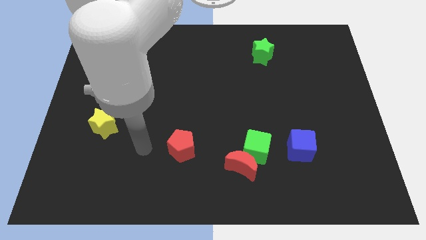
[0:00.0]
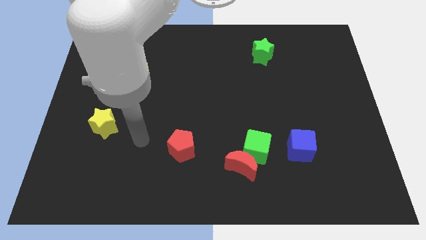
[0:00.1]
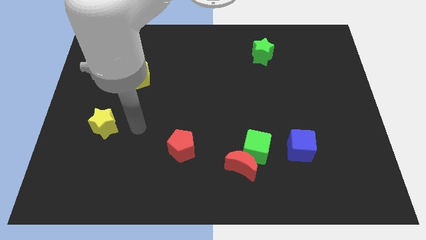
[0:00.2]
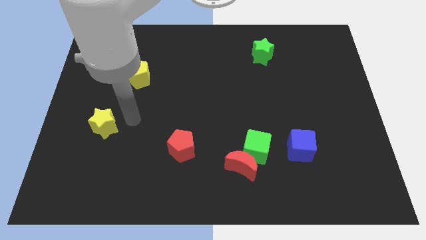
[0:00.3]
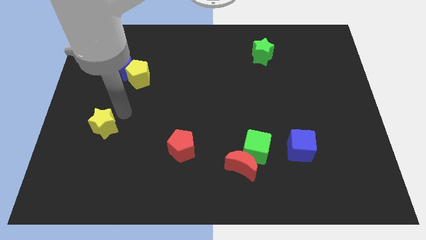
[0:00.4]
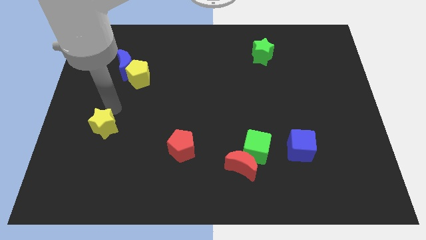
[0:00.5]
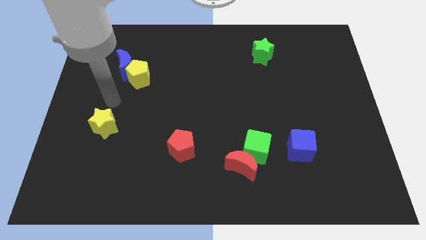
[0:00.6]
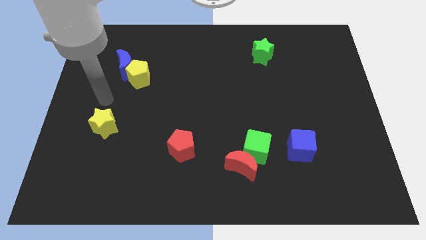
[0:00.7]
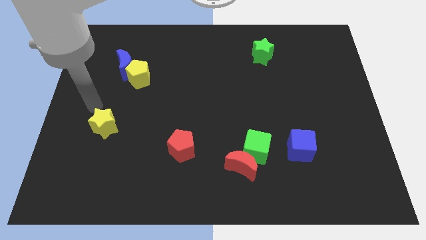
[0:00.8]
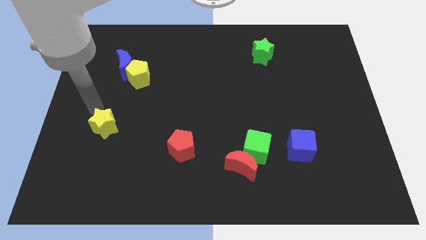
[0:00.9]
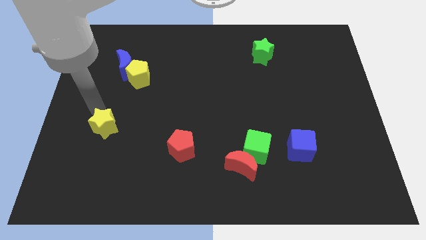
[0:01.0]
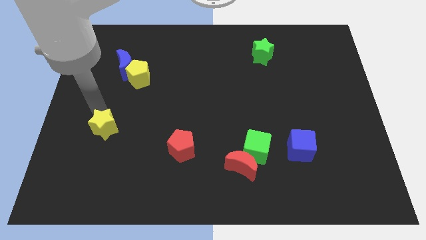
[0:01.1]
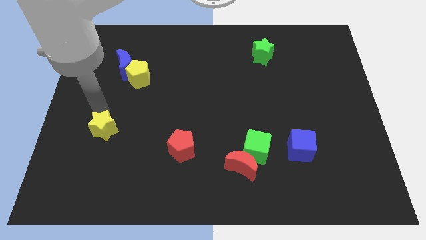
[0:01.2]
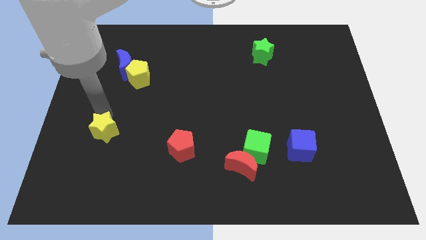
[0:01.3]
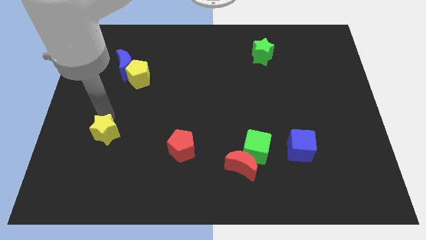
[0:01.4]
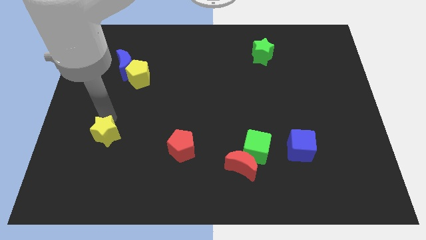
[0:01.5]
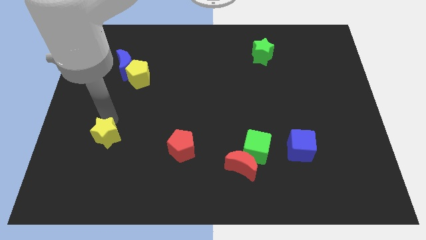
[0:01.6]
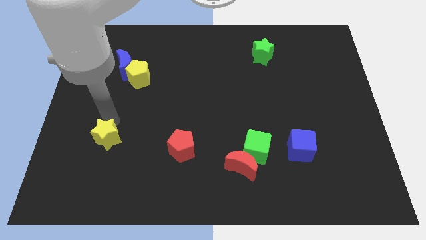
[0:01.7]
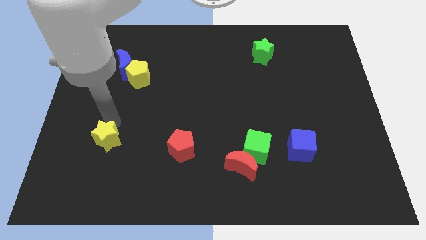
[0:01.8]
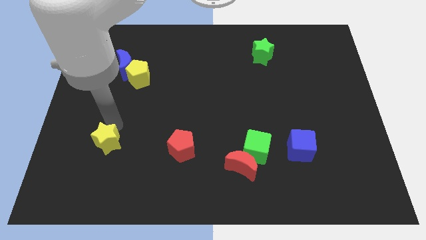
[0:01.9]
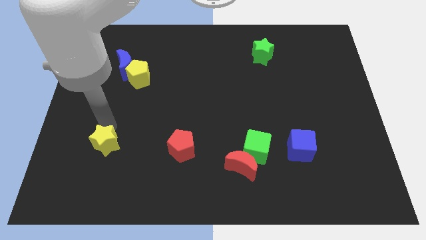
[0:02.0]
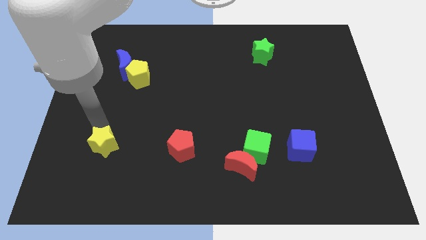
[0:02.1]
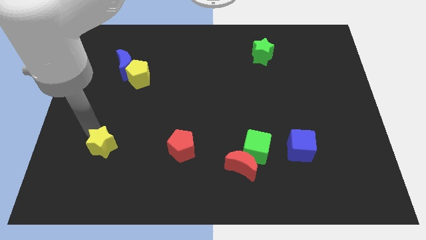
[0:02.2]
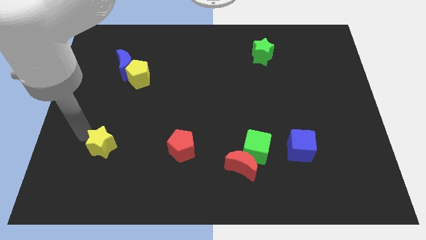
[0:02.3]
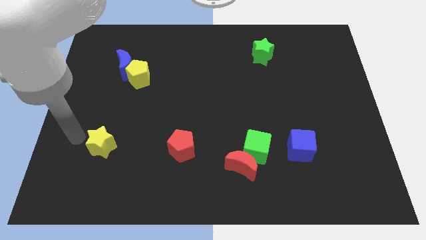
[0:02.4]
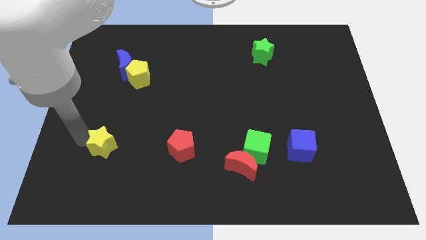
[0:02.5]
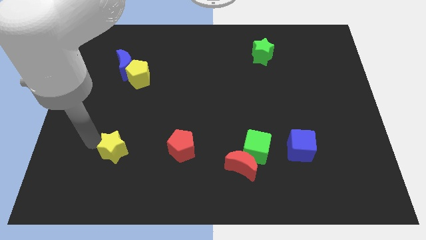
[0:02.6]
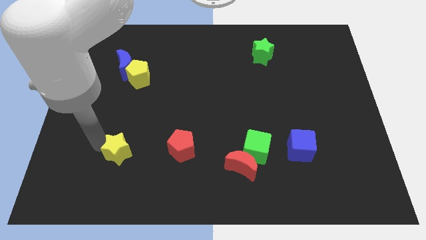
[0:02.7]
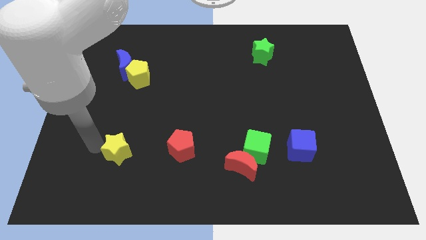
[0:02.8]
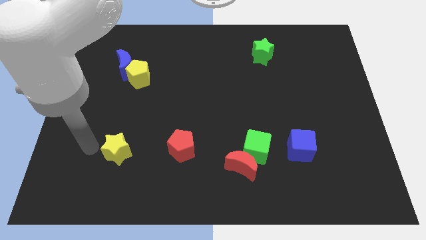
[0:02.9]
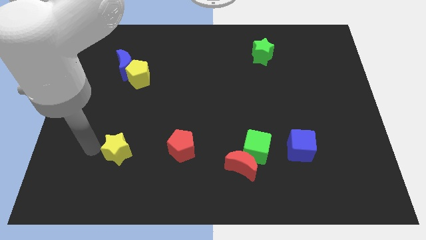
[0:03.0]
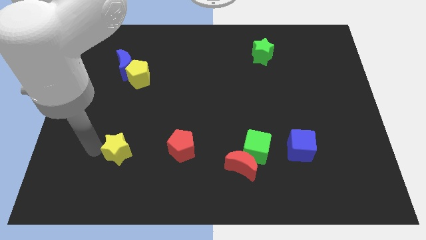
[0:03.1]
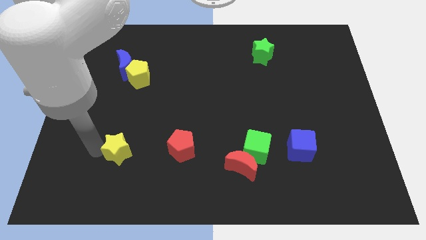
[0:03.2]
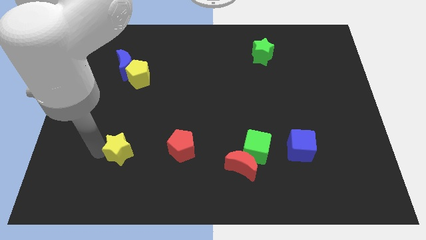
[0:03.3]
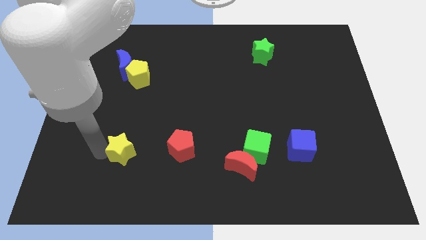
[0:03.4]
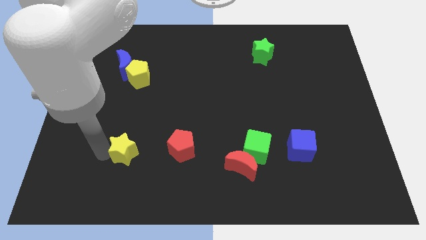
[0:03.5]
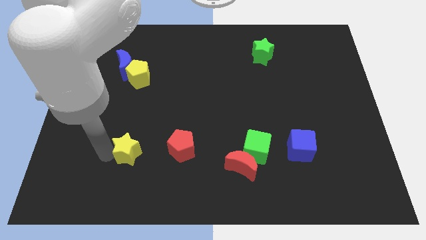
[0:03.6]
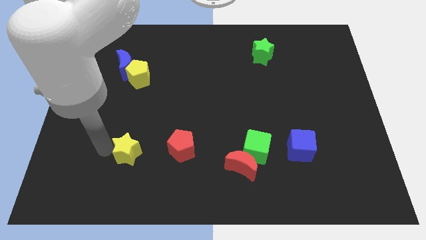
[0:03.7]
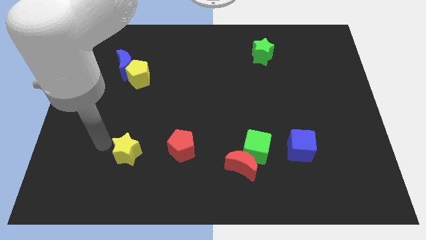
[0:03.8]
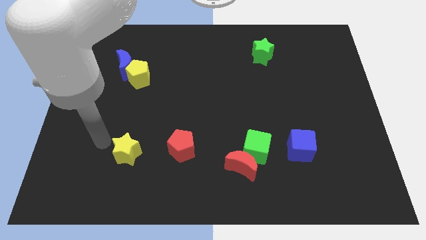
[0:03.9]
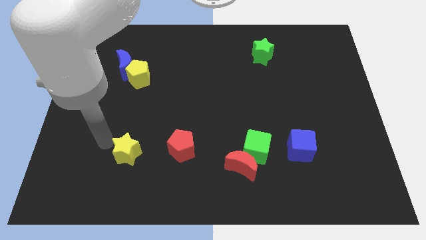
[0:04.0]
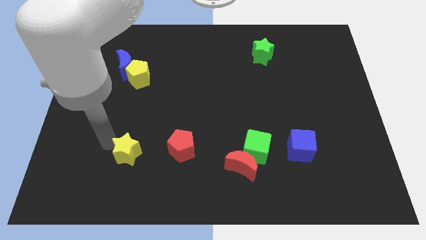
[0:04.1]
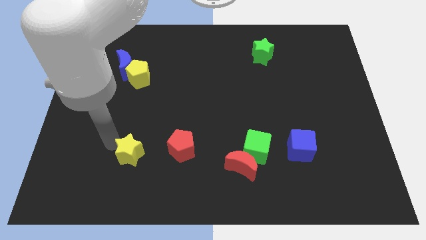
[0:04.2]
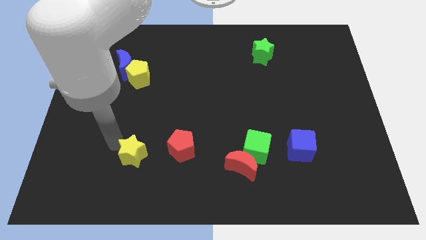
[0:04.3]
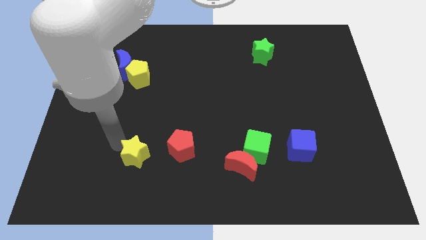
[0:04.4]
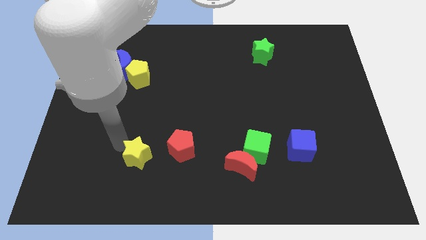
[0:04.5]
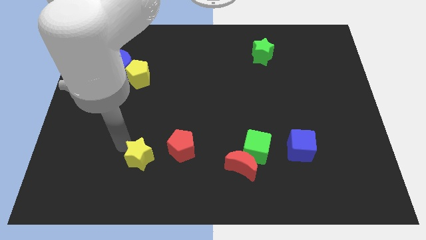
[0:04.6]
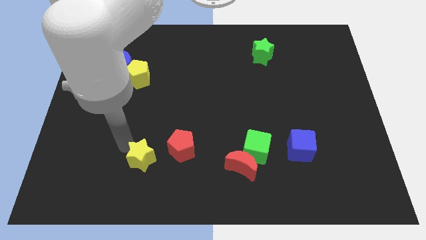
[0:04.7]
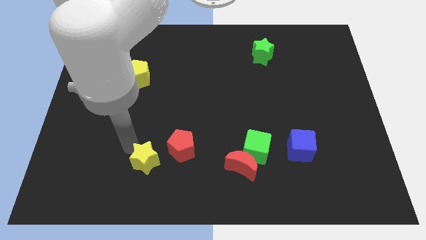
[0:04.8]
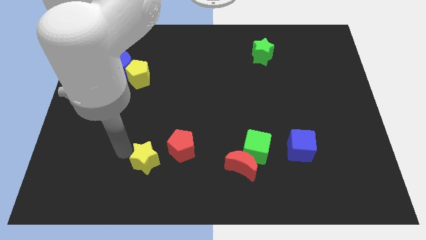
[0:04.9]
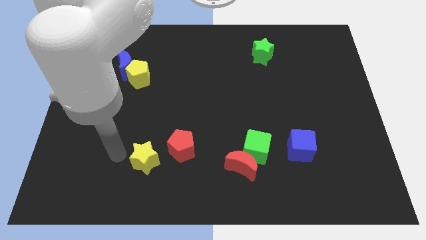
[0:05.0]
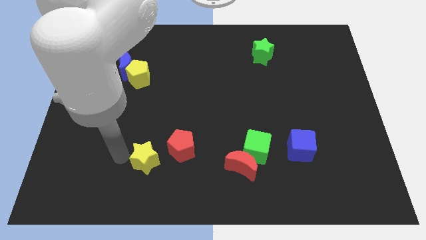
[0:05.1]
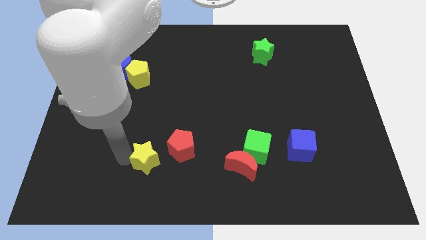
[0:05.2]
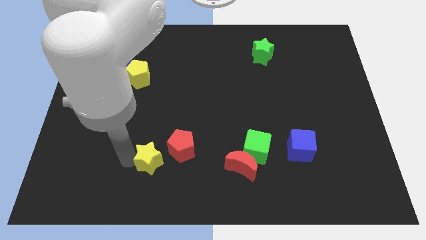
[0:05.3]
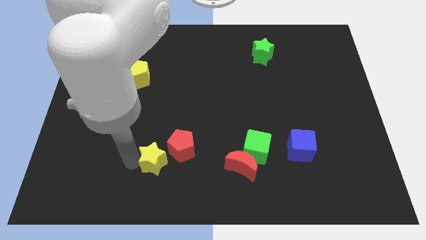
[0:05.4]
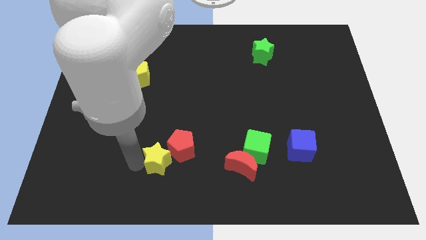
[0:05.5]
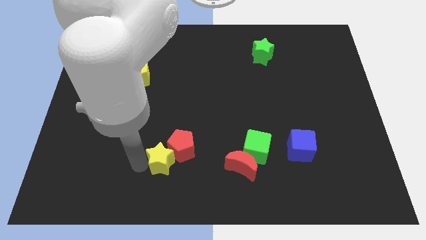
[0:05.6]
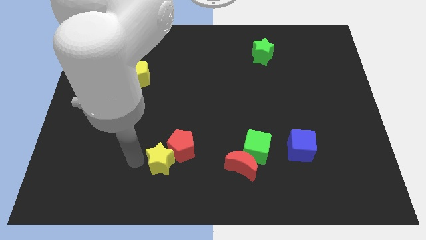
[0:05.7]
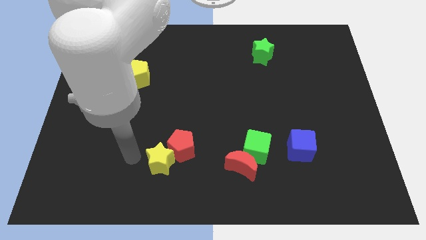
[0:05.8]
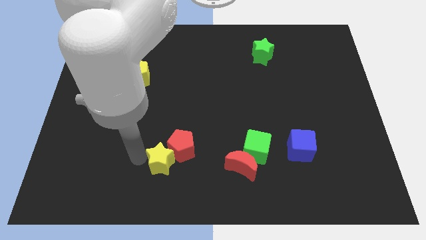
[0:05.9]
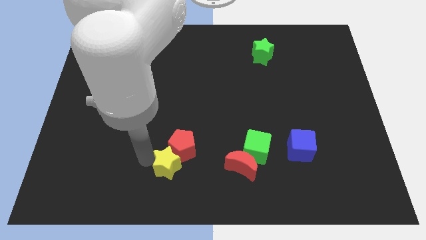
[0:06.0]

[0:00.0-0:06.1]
slide the yellow star left of the red moon
